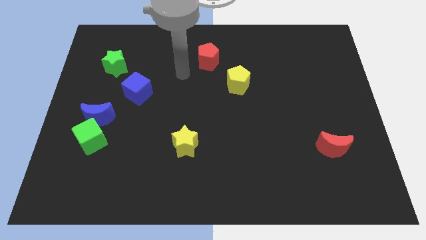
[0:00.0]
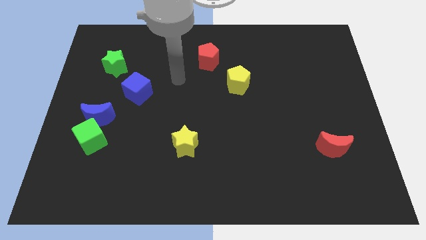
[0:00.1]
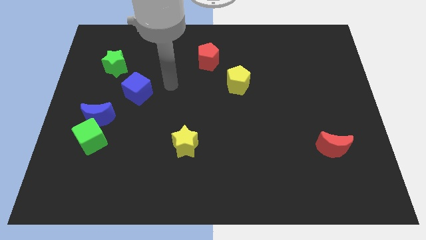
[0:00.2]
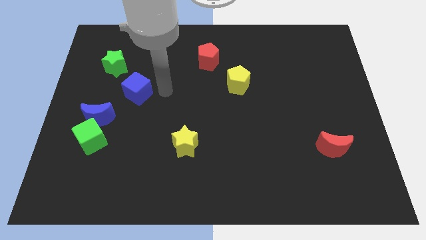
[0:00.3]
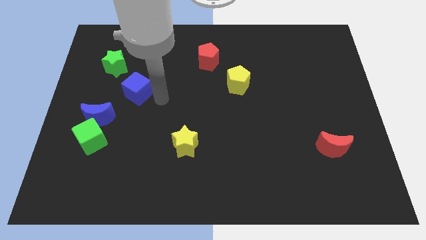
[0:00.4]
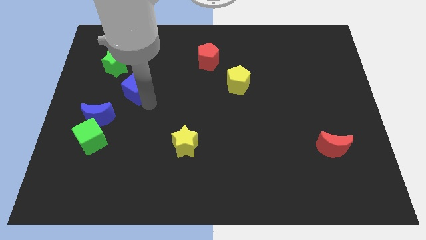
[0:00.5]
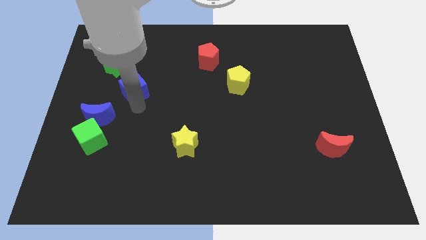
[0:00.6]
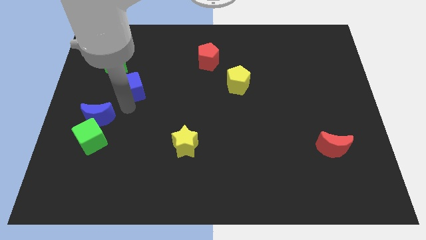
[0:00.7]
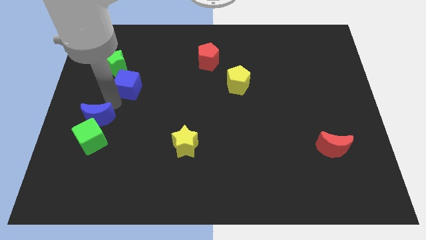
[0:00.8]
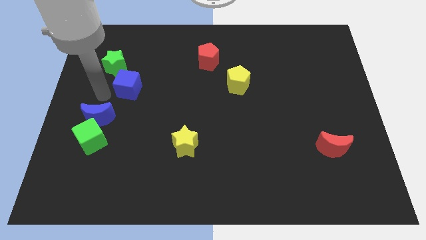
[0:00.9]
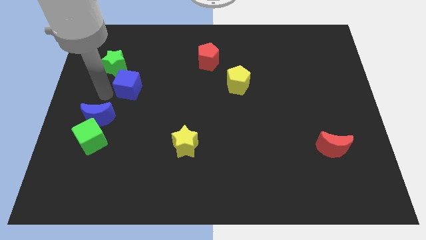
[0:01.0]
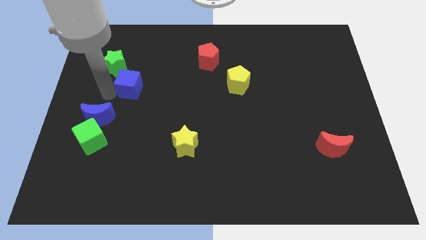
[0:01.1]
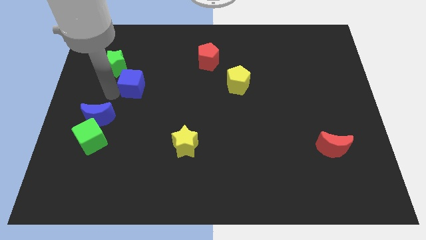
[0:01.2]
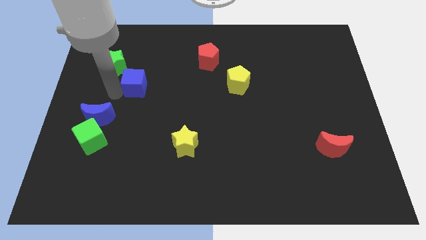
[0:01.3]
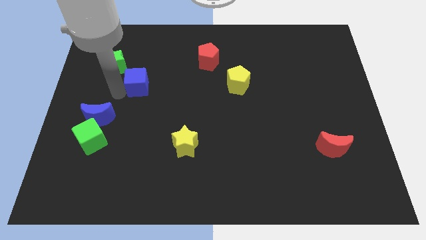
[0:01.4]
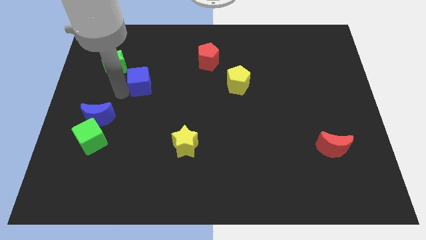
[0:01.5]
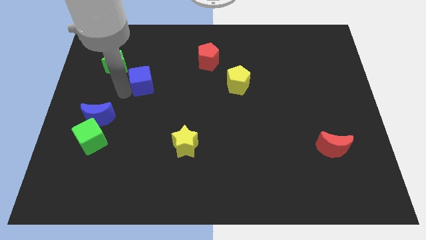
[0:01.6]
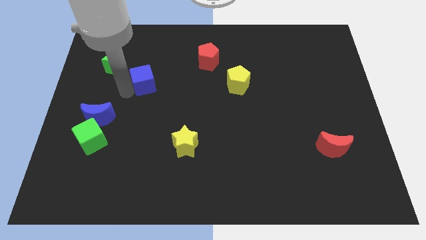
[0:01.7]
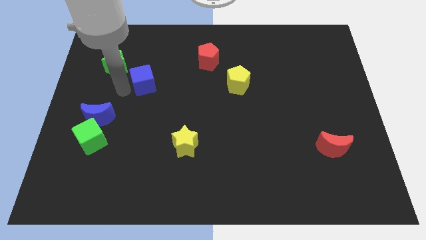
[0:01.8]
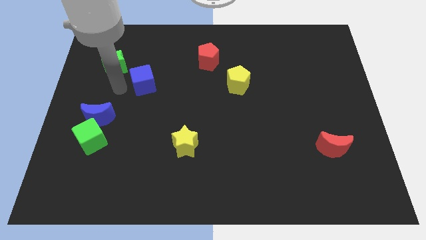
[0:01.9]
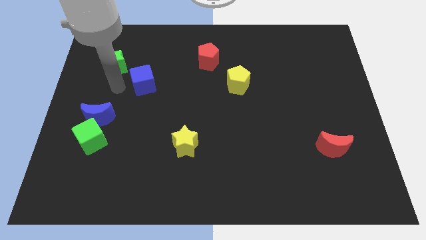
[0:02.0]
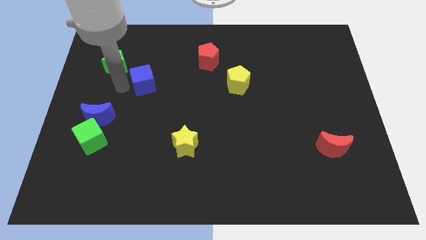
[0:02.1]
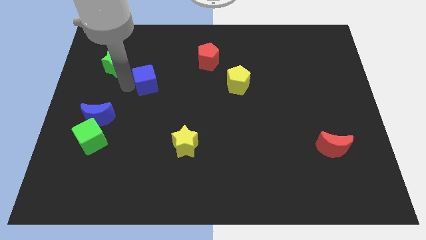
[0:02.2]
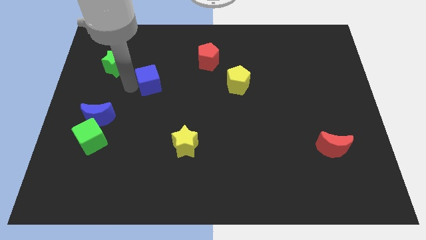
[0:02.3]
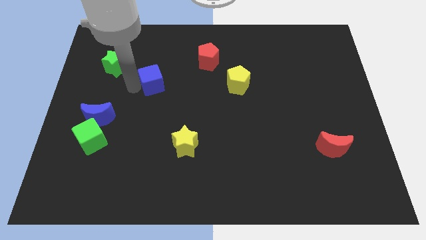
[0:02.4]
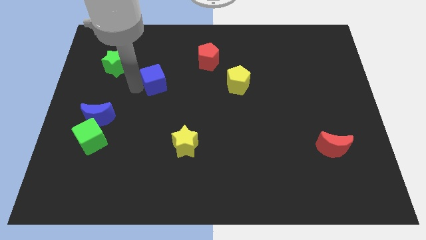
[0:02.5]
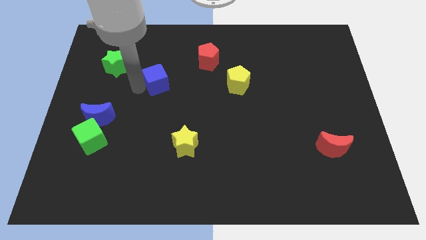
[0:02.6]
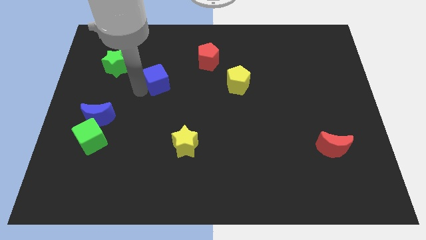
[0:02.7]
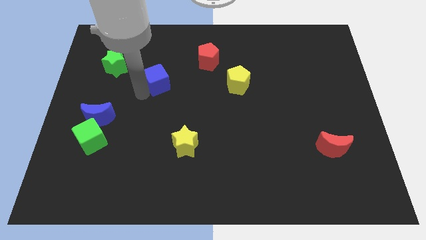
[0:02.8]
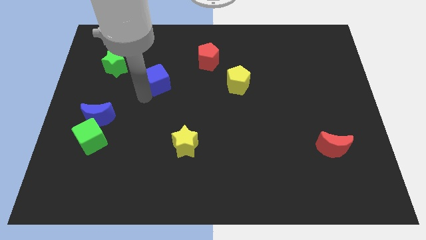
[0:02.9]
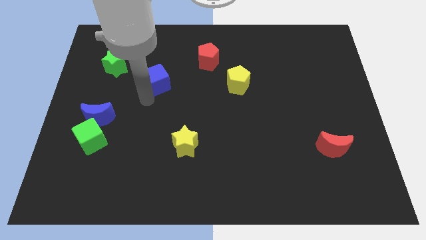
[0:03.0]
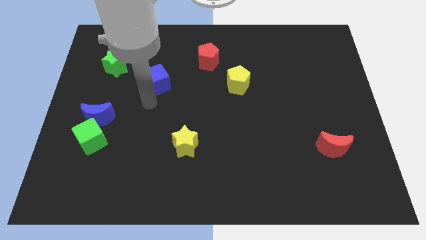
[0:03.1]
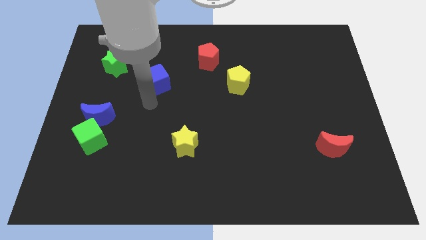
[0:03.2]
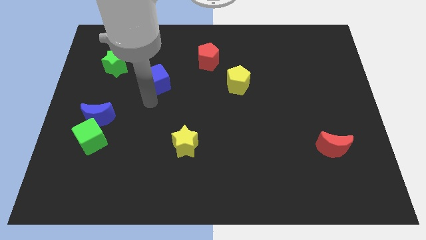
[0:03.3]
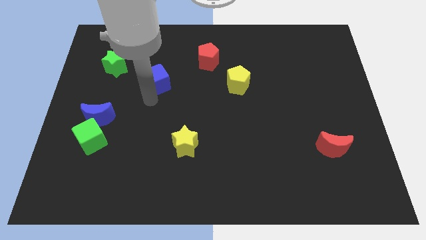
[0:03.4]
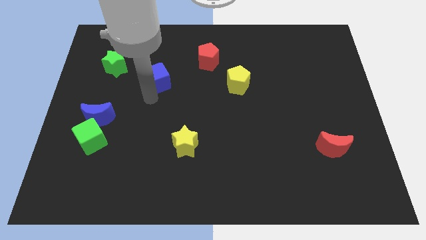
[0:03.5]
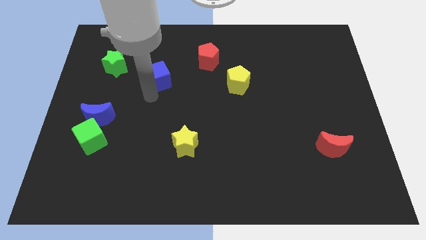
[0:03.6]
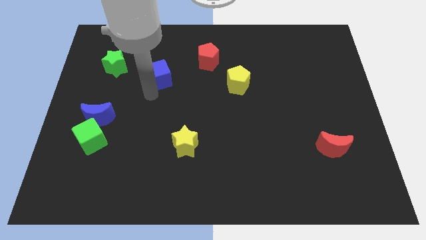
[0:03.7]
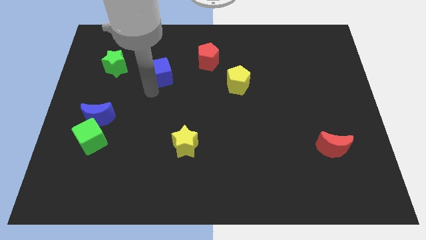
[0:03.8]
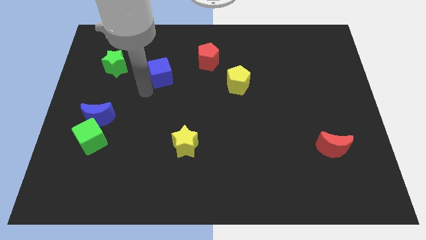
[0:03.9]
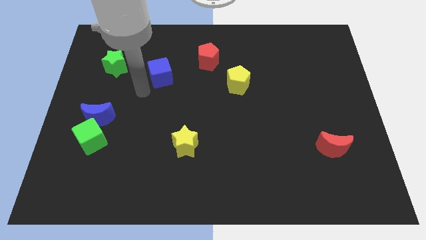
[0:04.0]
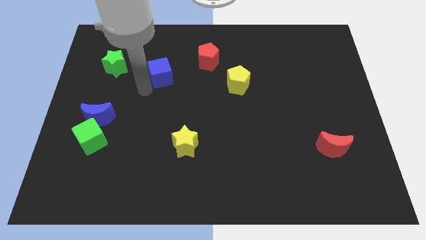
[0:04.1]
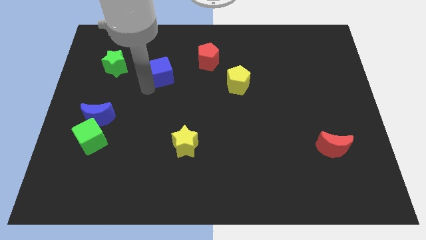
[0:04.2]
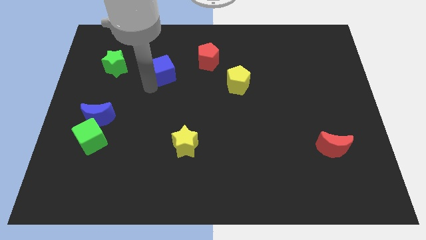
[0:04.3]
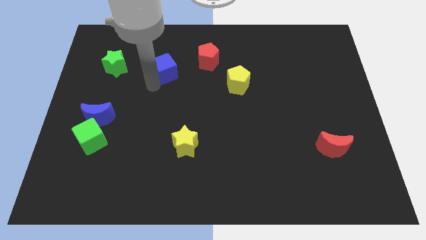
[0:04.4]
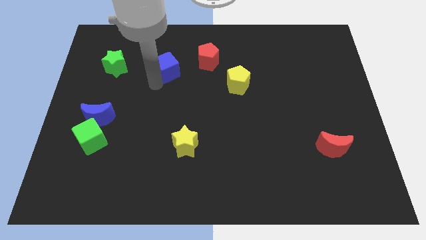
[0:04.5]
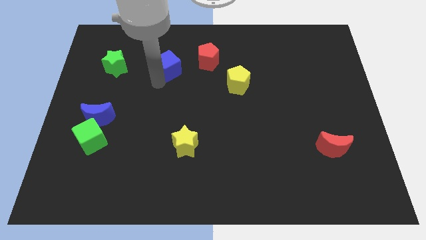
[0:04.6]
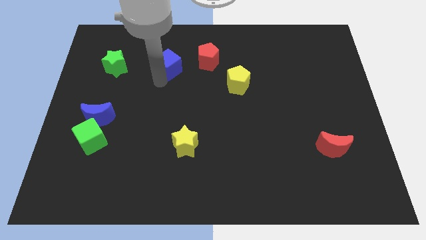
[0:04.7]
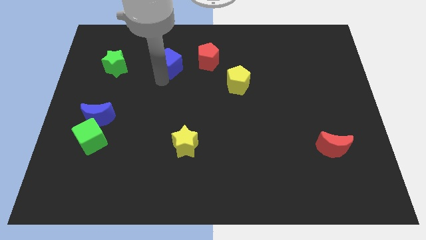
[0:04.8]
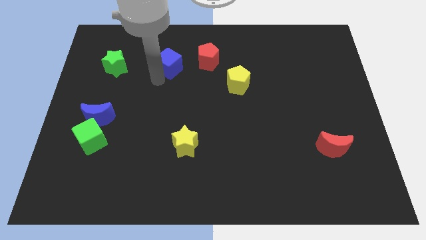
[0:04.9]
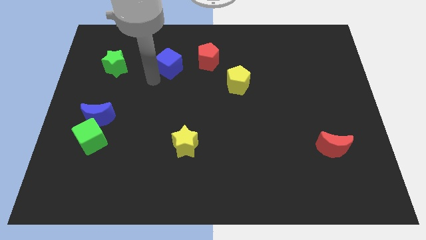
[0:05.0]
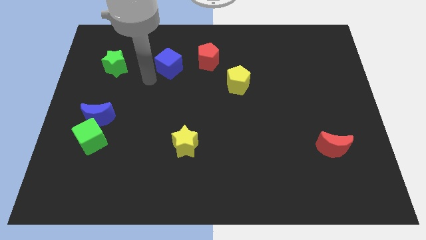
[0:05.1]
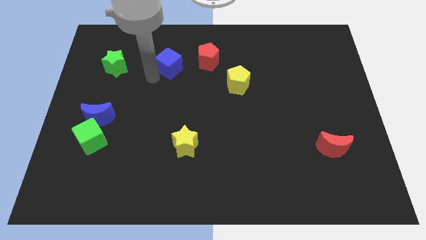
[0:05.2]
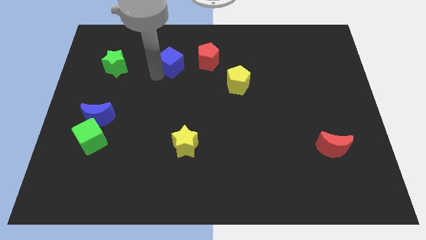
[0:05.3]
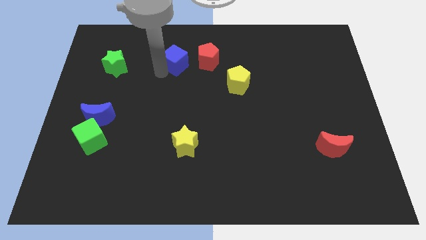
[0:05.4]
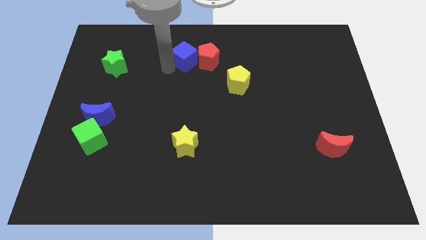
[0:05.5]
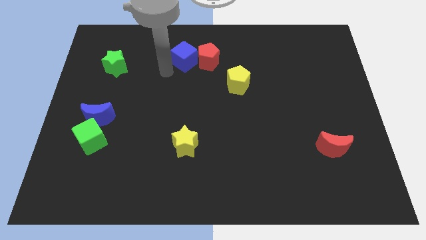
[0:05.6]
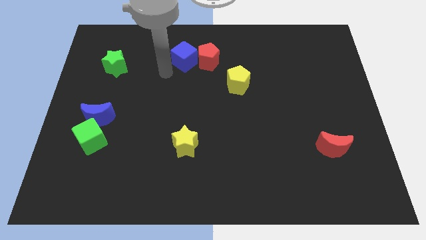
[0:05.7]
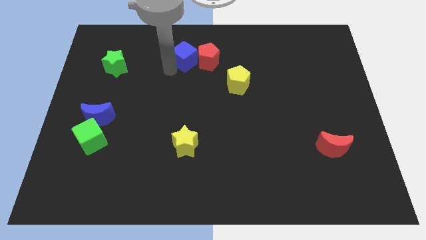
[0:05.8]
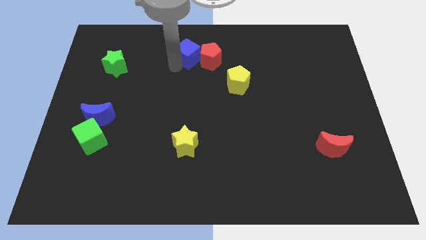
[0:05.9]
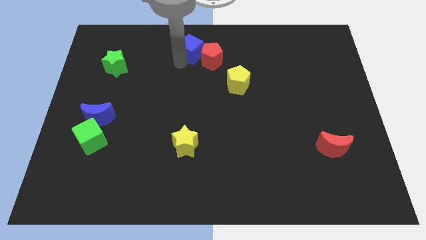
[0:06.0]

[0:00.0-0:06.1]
push the blue cube to the top side

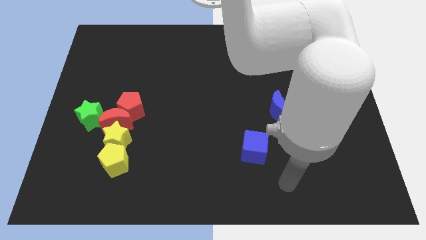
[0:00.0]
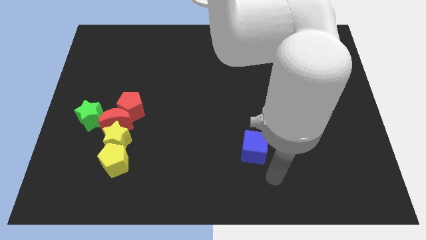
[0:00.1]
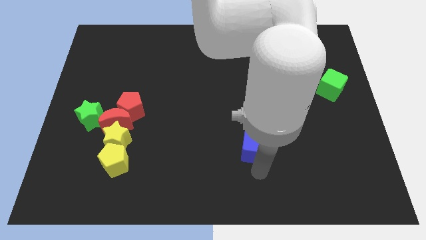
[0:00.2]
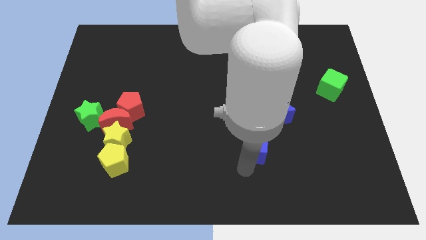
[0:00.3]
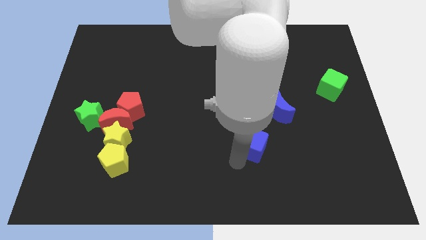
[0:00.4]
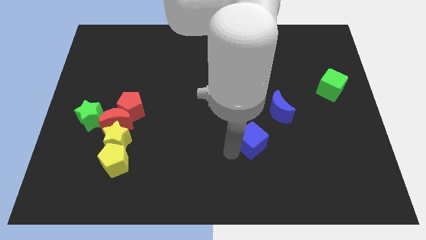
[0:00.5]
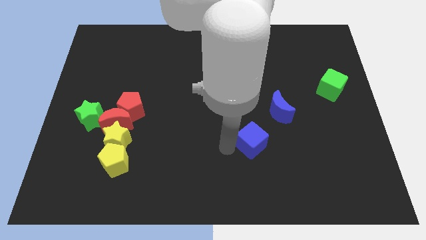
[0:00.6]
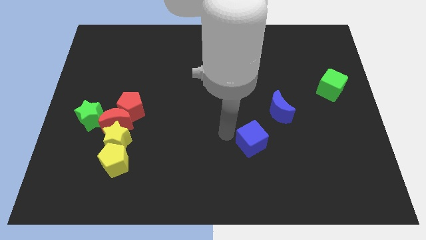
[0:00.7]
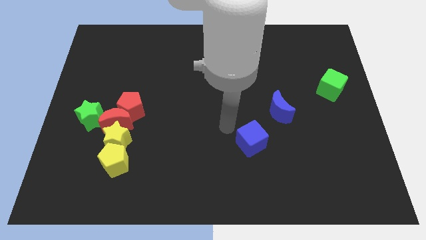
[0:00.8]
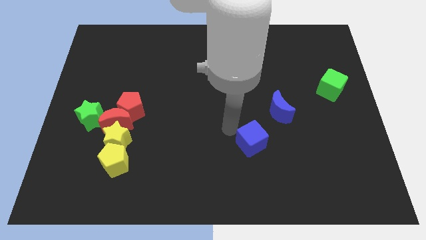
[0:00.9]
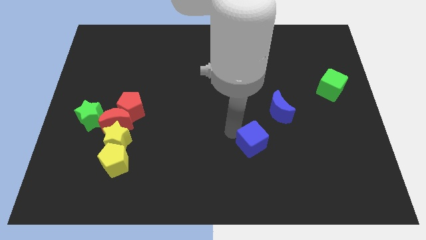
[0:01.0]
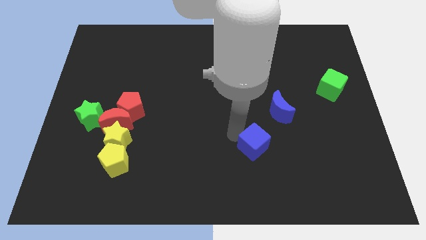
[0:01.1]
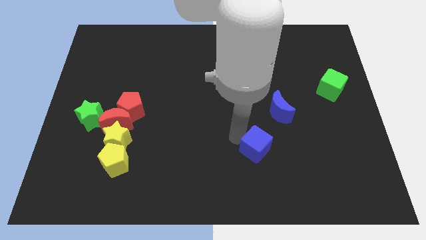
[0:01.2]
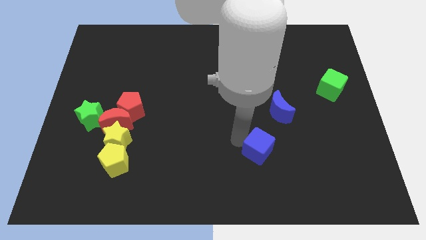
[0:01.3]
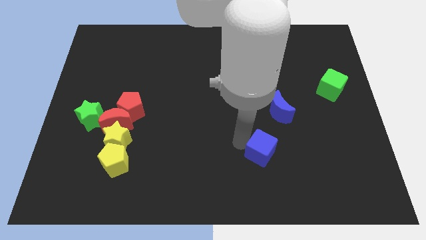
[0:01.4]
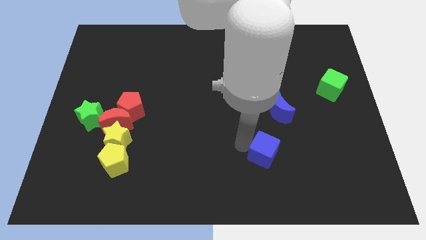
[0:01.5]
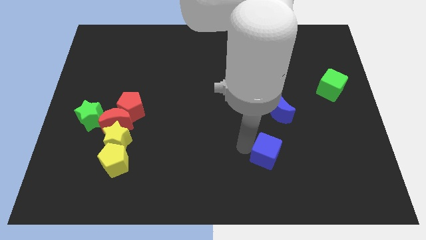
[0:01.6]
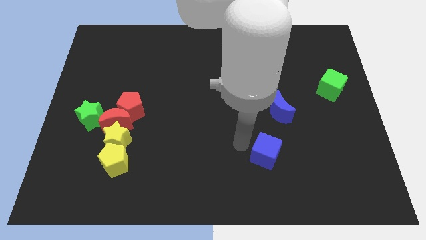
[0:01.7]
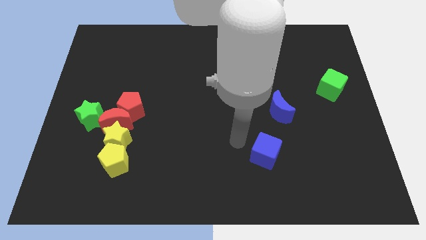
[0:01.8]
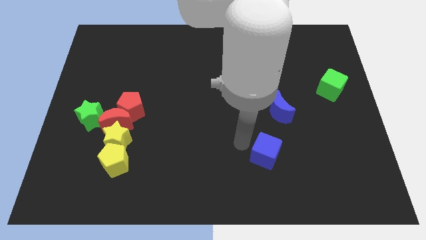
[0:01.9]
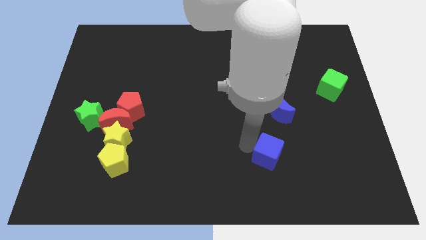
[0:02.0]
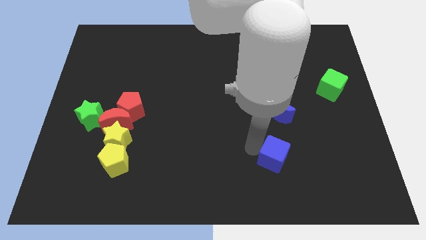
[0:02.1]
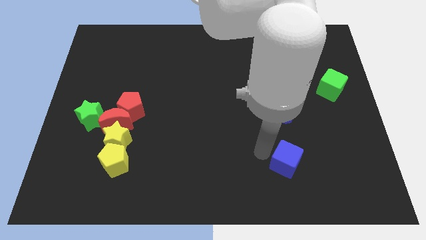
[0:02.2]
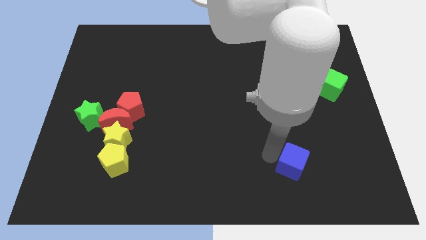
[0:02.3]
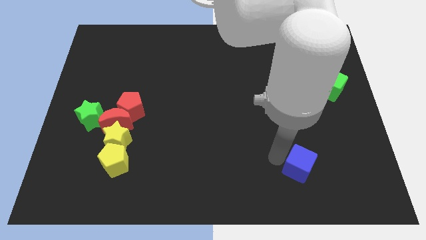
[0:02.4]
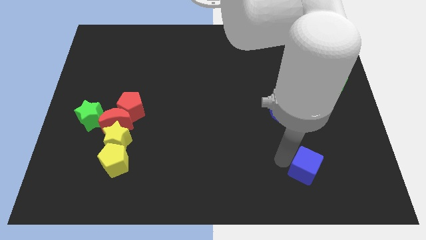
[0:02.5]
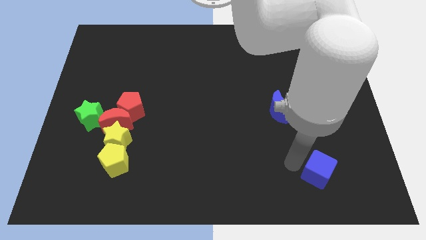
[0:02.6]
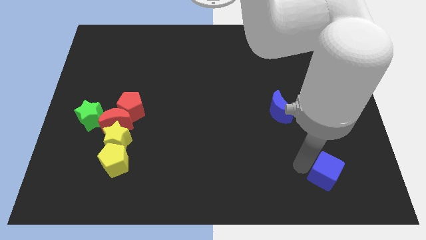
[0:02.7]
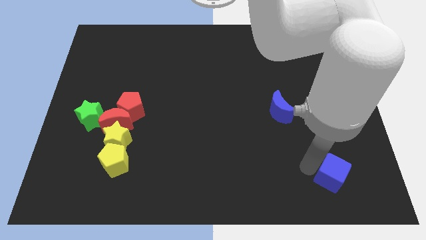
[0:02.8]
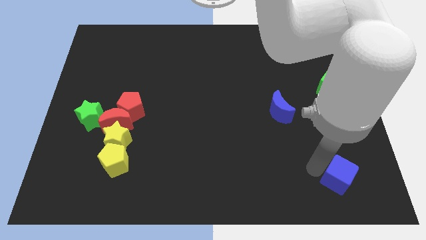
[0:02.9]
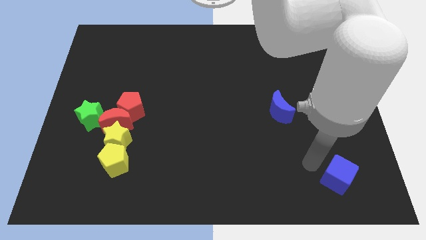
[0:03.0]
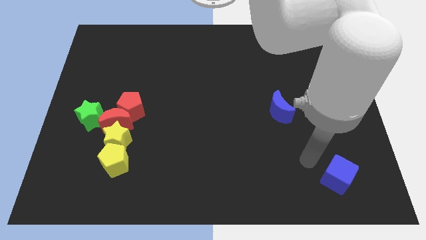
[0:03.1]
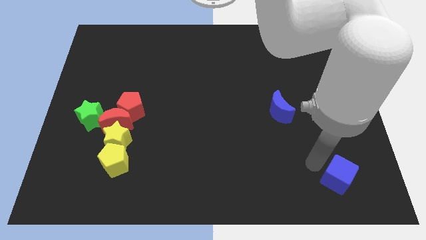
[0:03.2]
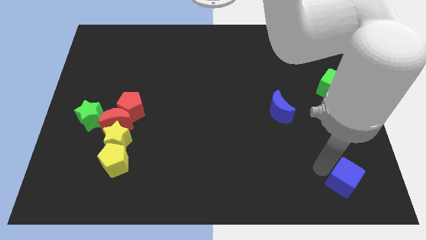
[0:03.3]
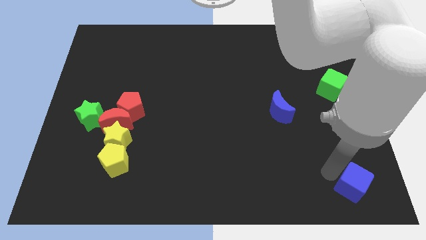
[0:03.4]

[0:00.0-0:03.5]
move the blue cube to the lower right corner
